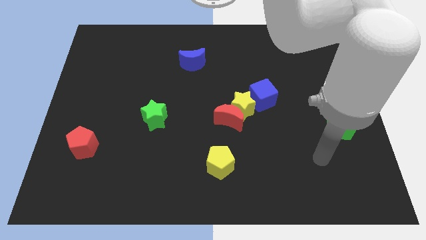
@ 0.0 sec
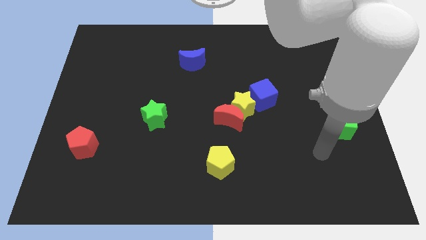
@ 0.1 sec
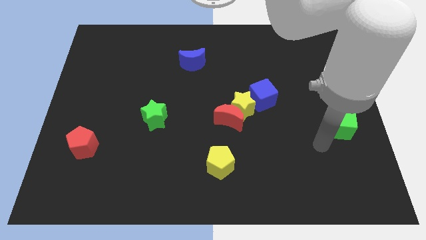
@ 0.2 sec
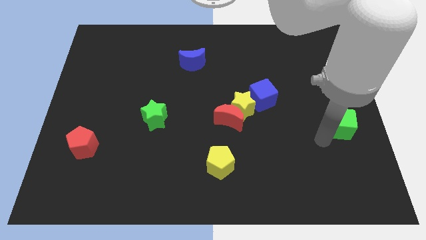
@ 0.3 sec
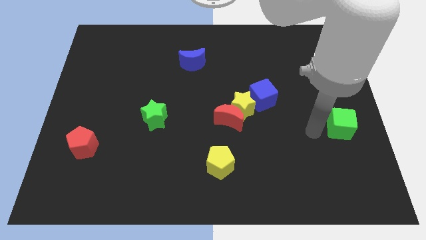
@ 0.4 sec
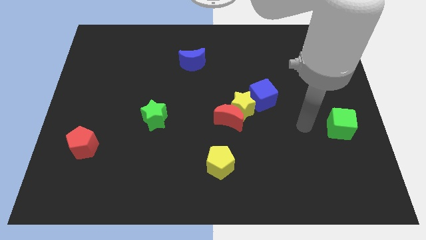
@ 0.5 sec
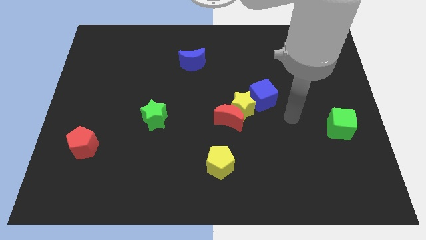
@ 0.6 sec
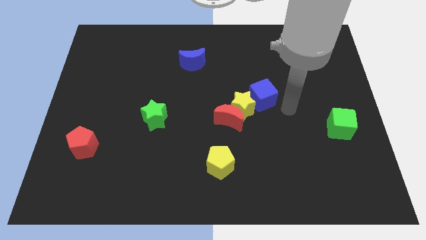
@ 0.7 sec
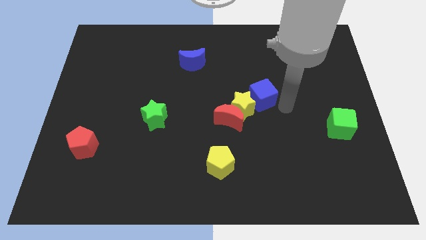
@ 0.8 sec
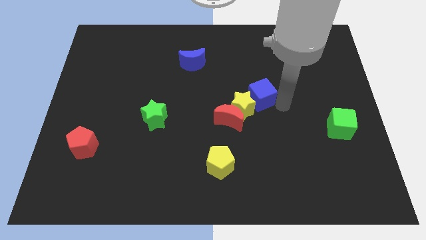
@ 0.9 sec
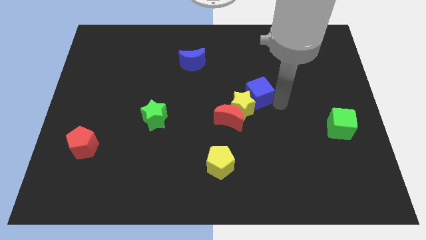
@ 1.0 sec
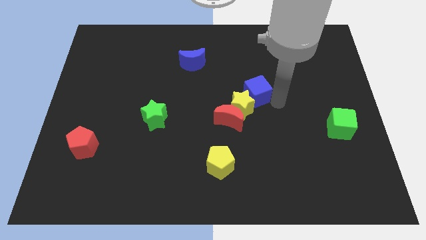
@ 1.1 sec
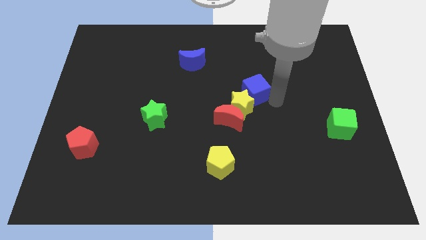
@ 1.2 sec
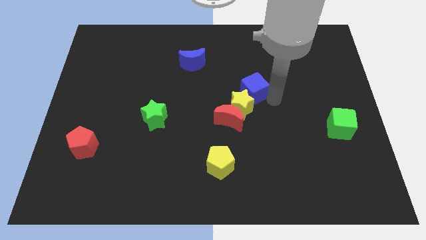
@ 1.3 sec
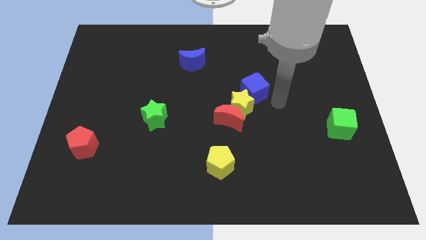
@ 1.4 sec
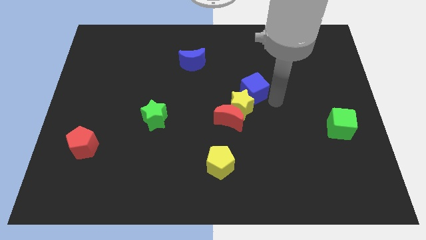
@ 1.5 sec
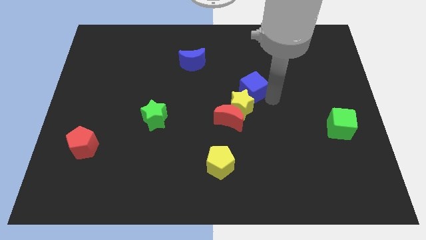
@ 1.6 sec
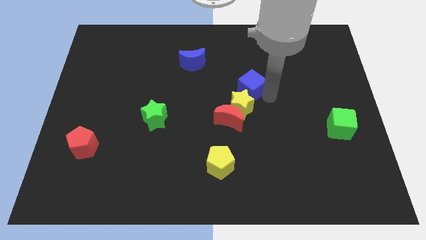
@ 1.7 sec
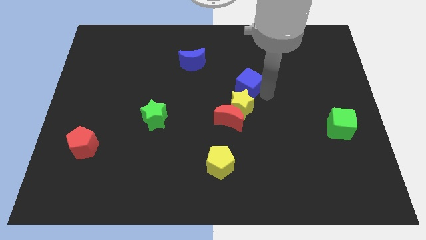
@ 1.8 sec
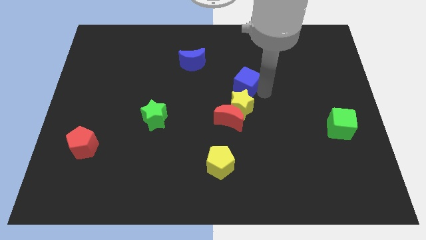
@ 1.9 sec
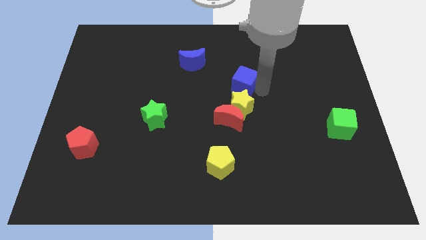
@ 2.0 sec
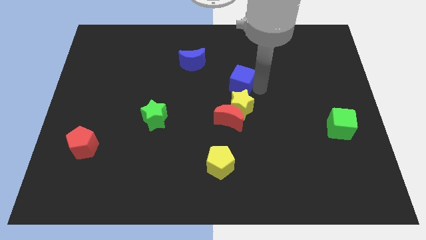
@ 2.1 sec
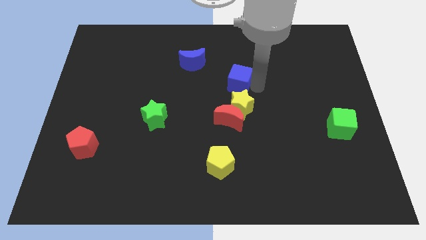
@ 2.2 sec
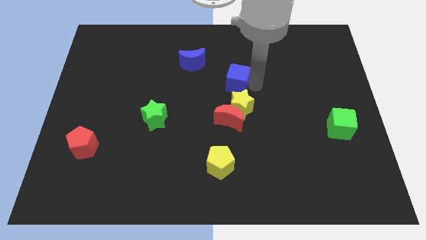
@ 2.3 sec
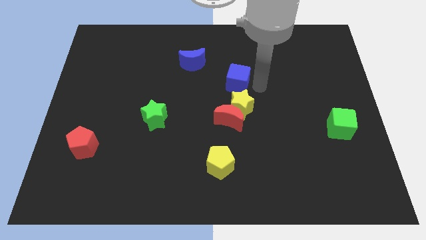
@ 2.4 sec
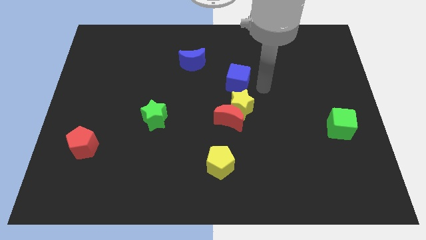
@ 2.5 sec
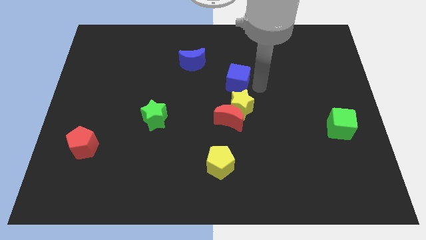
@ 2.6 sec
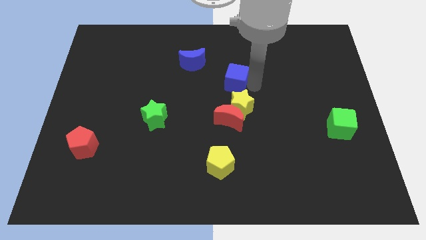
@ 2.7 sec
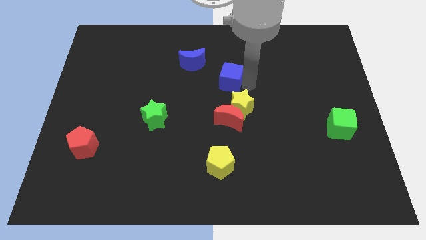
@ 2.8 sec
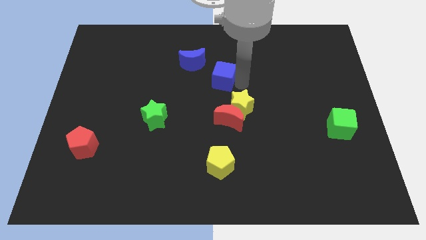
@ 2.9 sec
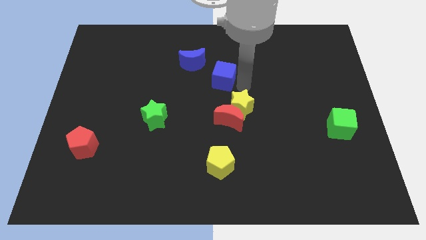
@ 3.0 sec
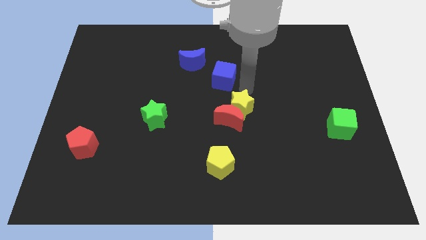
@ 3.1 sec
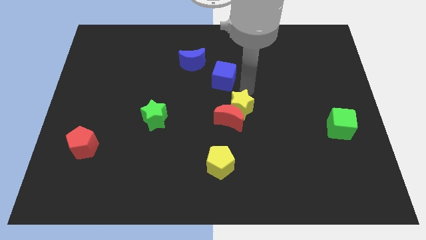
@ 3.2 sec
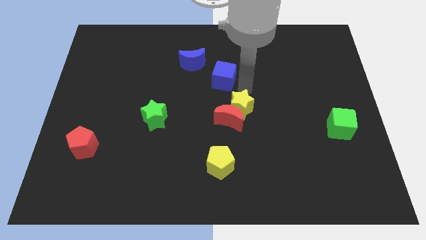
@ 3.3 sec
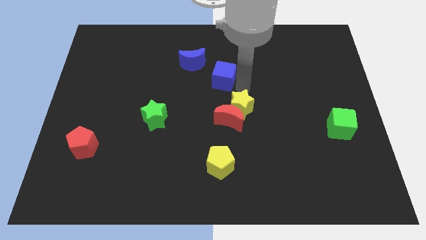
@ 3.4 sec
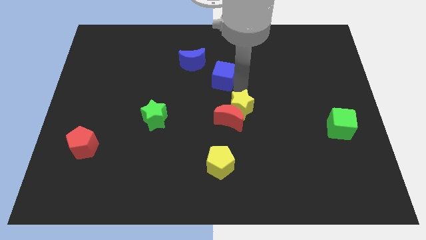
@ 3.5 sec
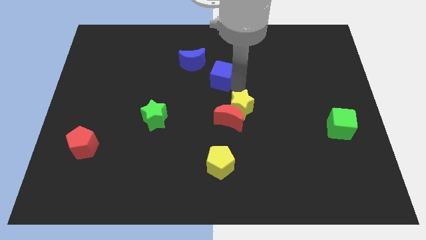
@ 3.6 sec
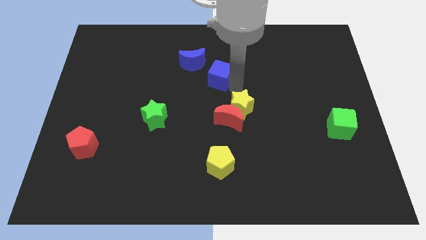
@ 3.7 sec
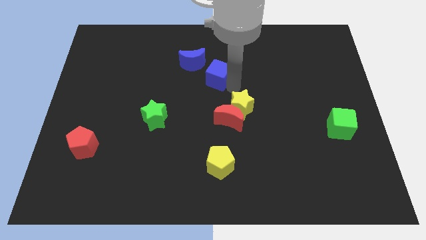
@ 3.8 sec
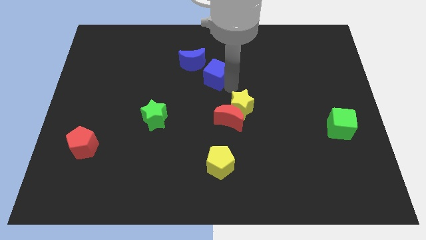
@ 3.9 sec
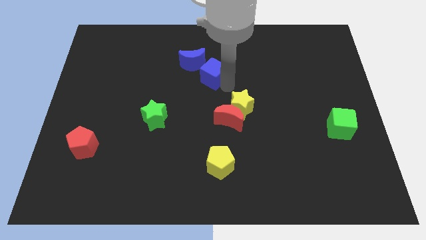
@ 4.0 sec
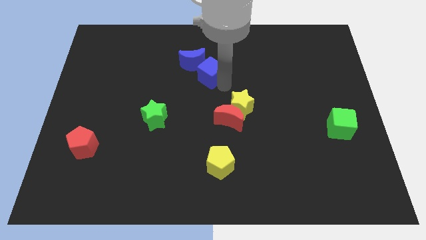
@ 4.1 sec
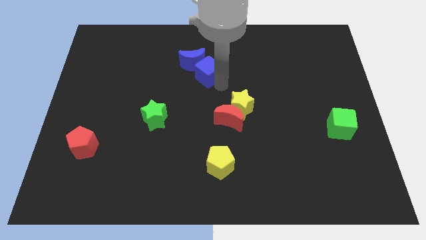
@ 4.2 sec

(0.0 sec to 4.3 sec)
slide the blue cube next to the blue moon

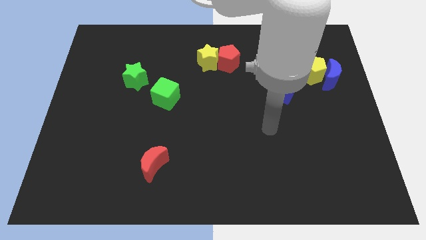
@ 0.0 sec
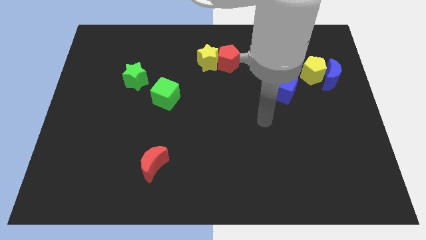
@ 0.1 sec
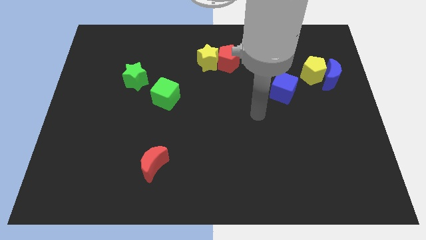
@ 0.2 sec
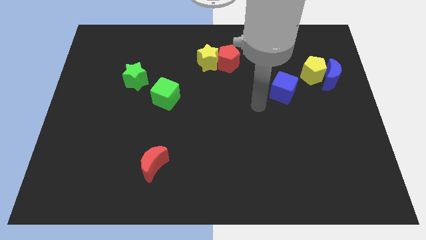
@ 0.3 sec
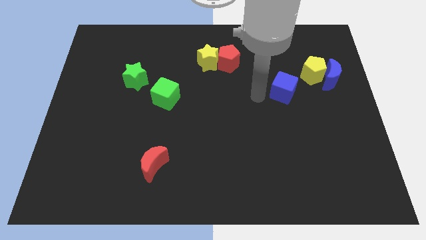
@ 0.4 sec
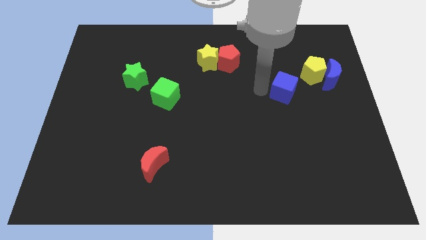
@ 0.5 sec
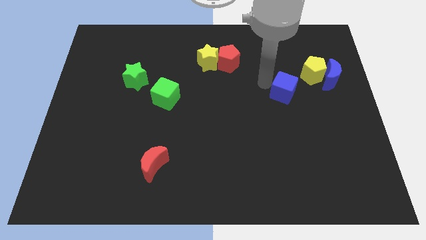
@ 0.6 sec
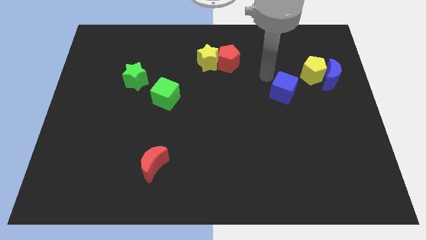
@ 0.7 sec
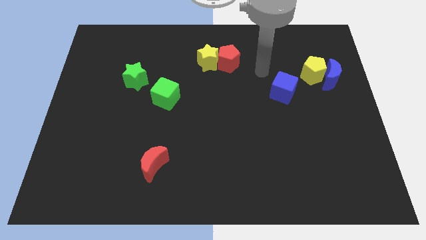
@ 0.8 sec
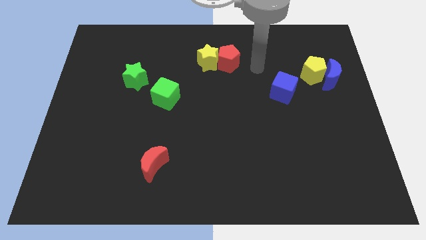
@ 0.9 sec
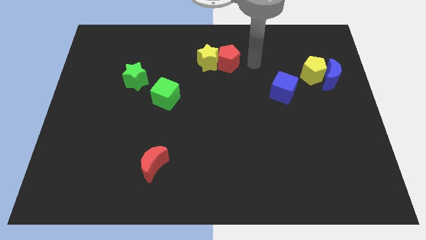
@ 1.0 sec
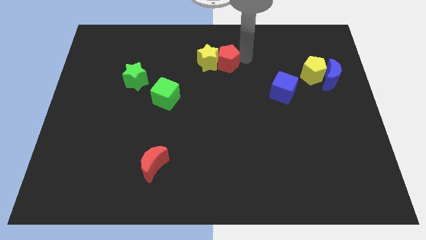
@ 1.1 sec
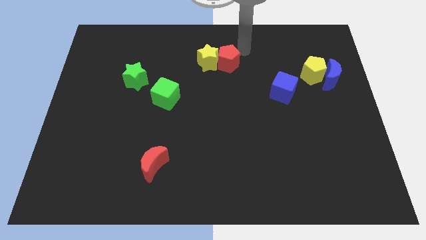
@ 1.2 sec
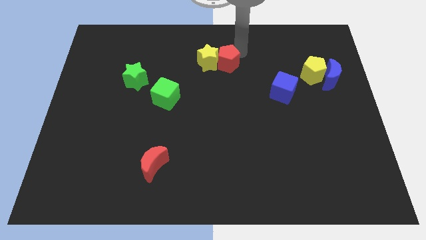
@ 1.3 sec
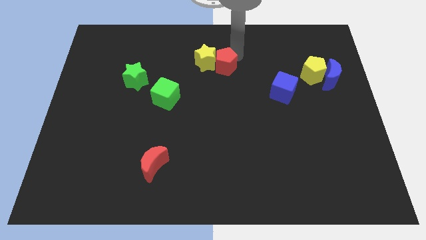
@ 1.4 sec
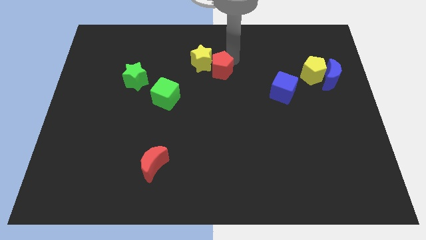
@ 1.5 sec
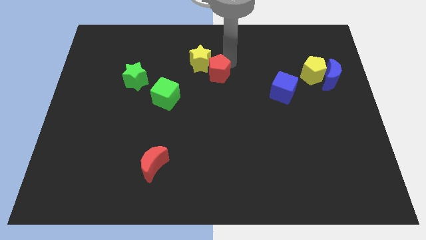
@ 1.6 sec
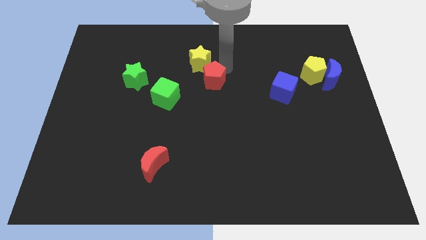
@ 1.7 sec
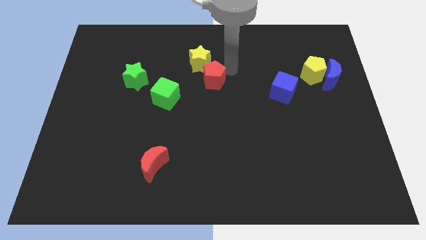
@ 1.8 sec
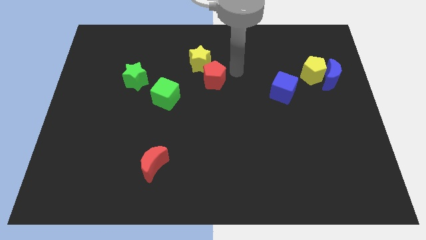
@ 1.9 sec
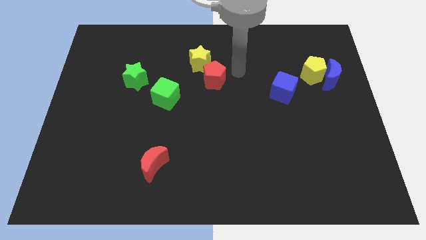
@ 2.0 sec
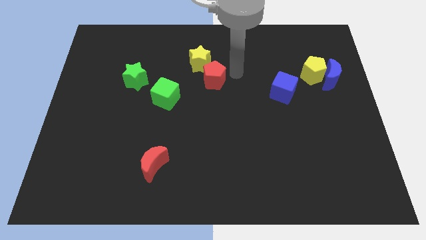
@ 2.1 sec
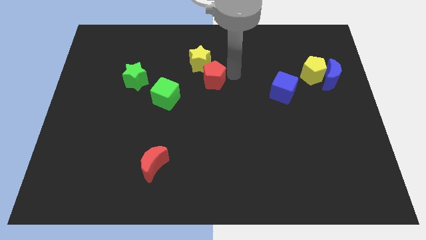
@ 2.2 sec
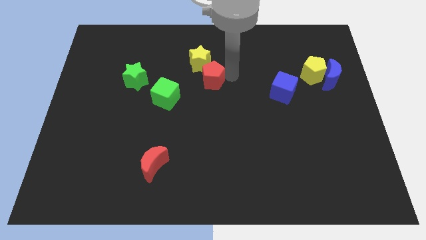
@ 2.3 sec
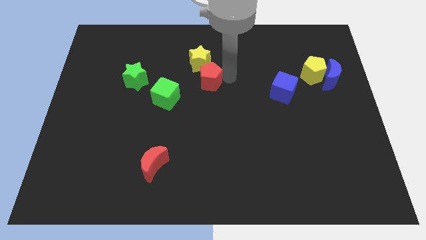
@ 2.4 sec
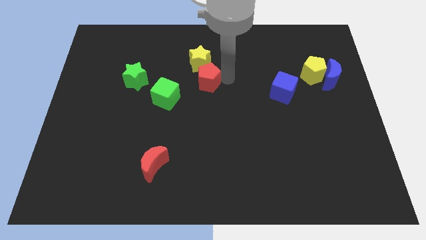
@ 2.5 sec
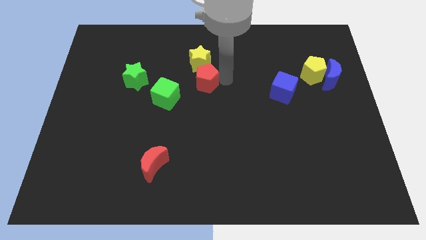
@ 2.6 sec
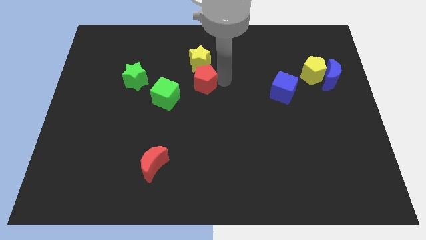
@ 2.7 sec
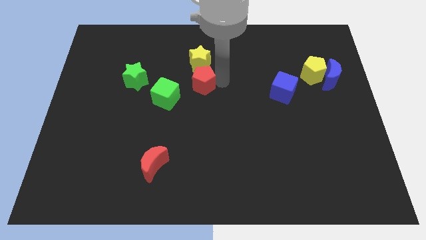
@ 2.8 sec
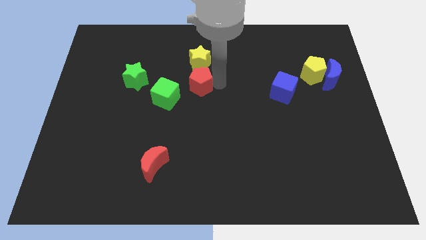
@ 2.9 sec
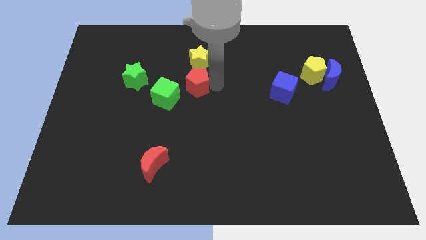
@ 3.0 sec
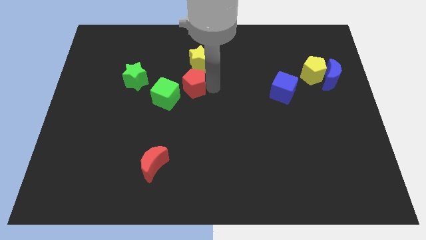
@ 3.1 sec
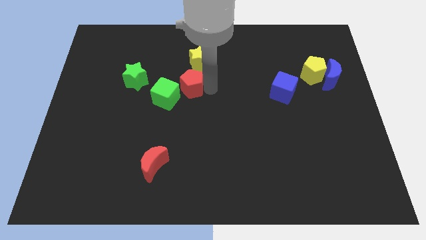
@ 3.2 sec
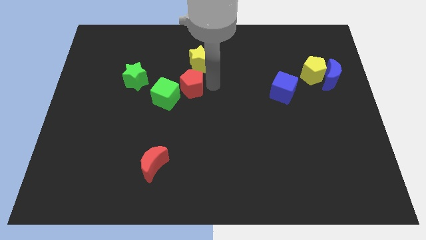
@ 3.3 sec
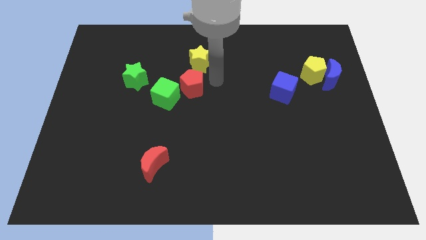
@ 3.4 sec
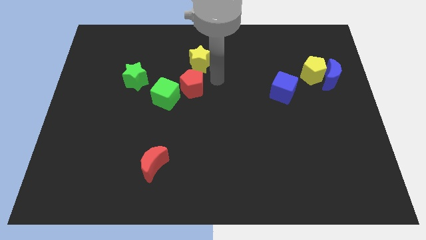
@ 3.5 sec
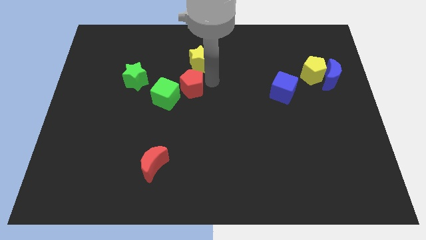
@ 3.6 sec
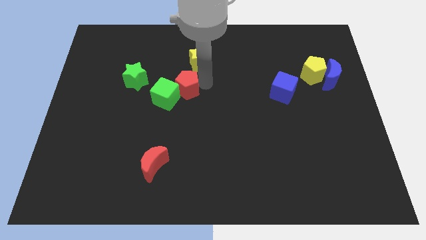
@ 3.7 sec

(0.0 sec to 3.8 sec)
push the red pentagon towards the green cube
